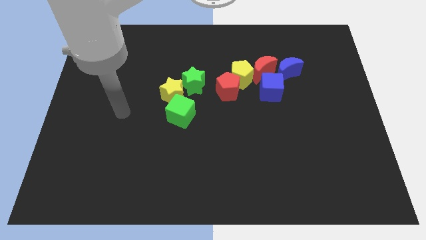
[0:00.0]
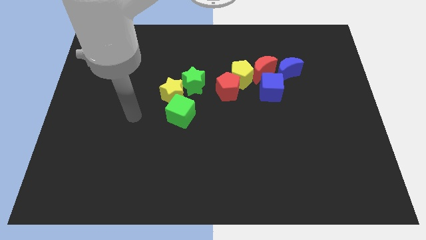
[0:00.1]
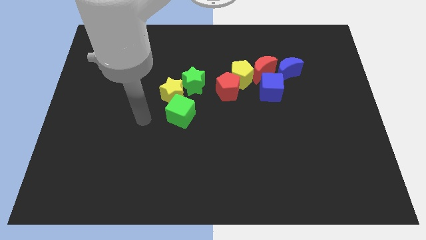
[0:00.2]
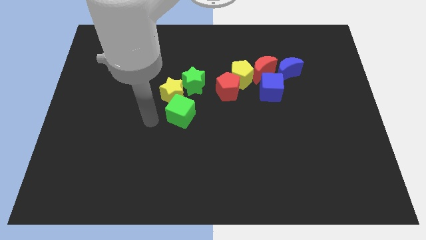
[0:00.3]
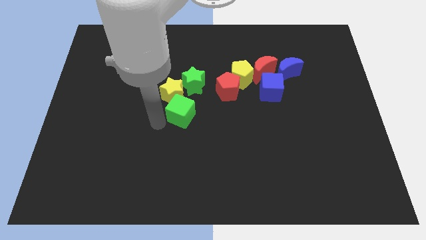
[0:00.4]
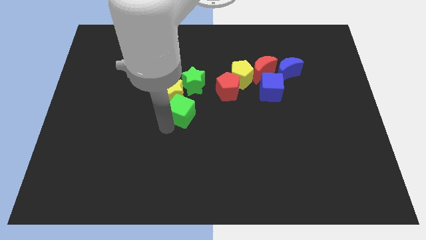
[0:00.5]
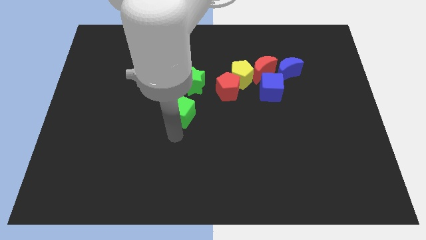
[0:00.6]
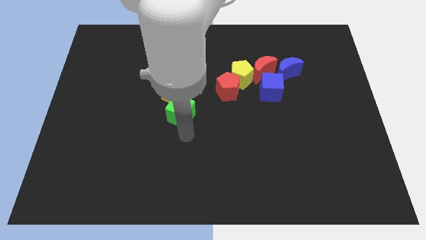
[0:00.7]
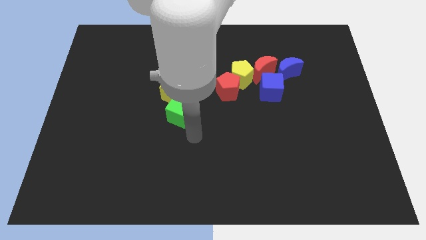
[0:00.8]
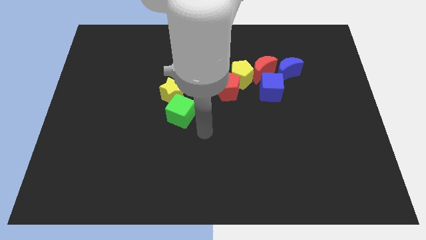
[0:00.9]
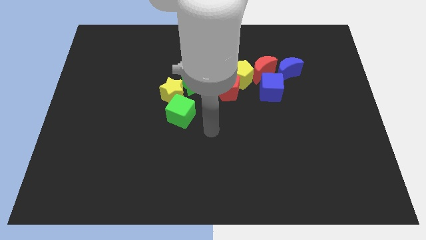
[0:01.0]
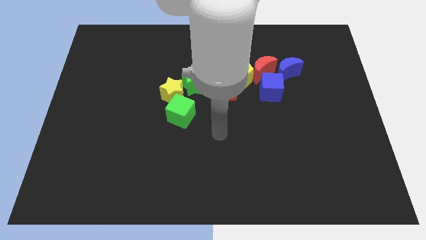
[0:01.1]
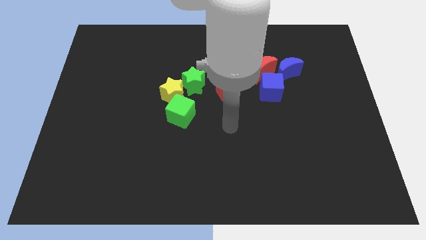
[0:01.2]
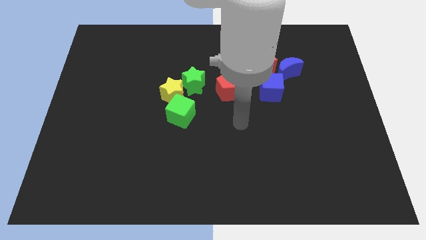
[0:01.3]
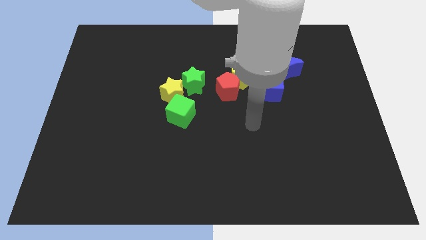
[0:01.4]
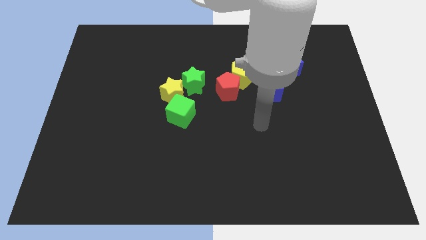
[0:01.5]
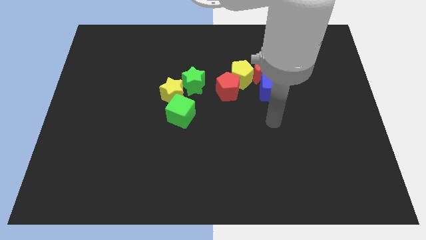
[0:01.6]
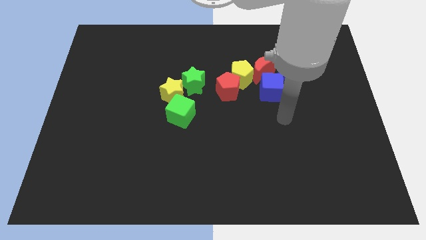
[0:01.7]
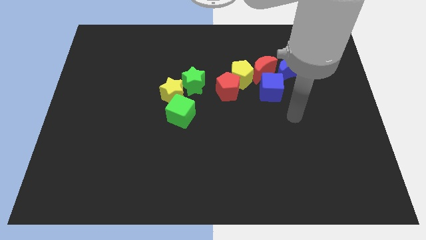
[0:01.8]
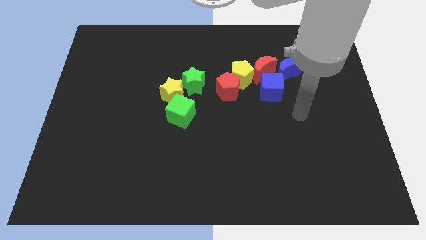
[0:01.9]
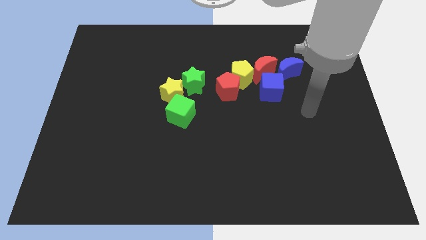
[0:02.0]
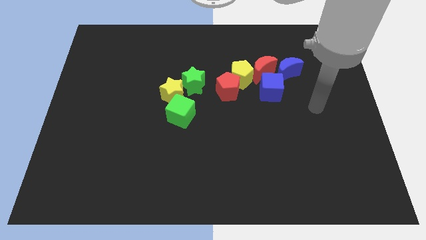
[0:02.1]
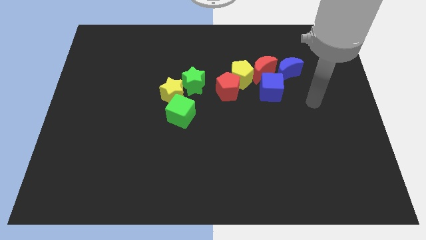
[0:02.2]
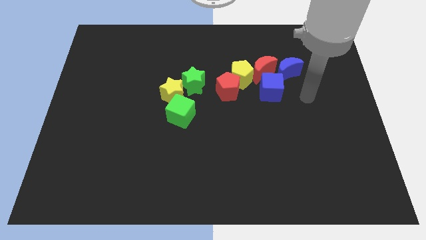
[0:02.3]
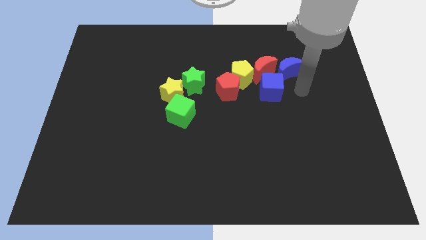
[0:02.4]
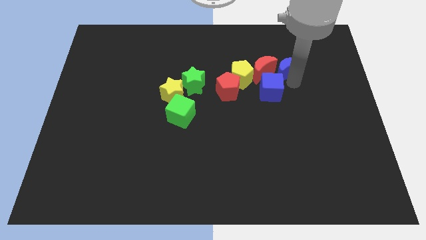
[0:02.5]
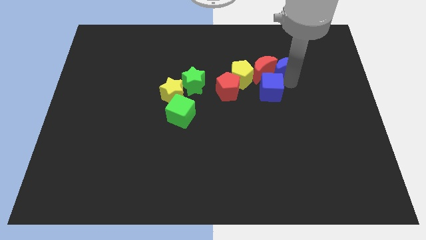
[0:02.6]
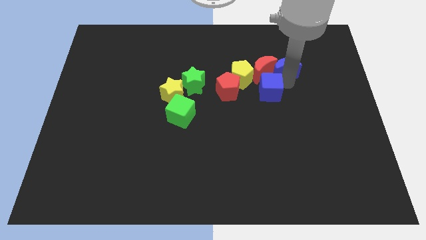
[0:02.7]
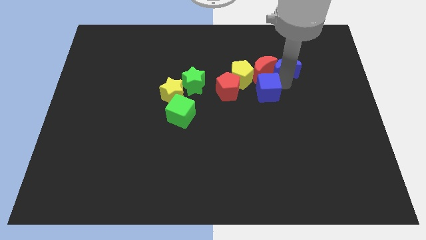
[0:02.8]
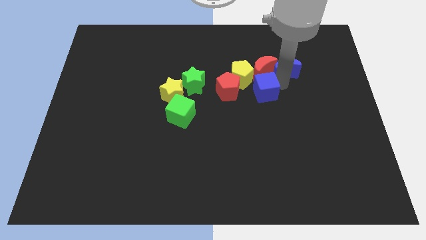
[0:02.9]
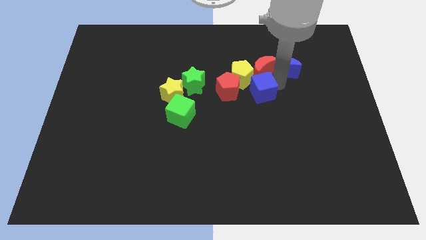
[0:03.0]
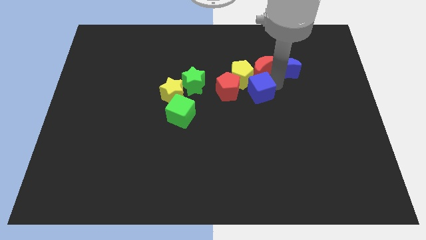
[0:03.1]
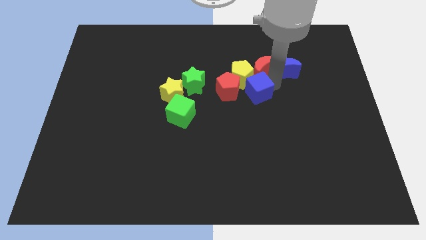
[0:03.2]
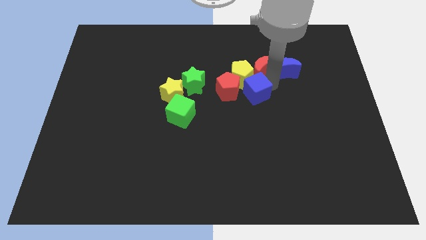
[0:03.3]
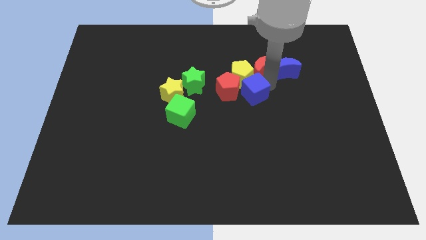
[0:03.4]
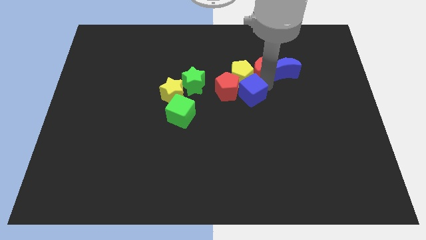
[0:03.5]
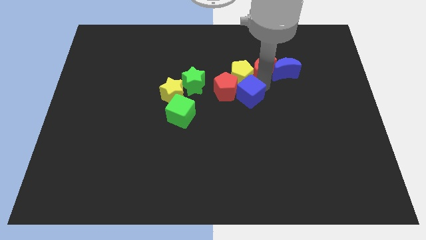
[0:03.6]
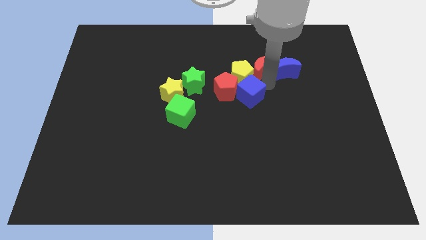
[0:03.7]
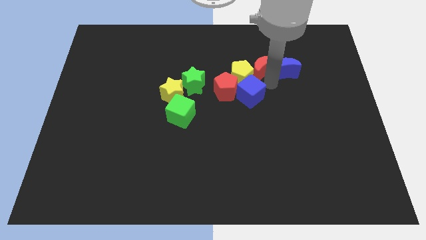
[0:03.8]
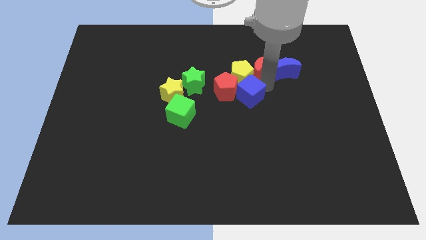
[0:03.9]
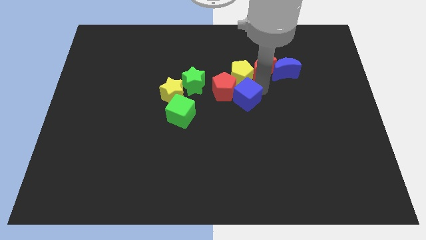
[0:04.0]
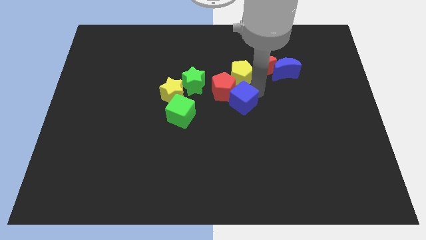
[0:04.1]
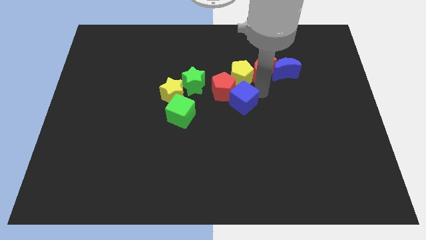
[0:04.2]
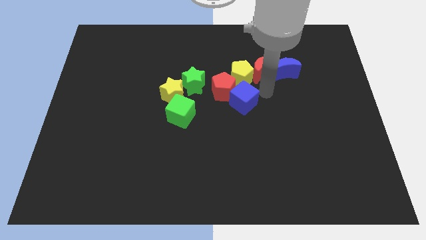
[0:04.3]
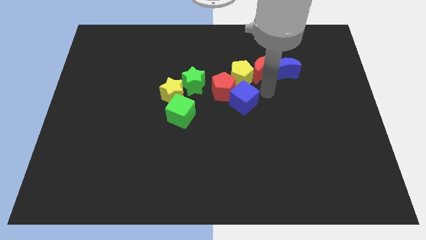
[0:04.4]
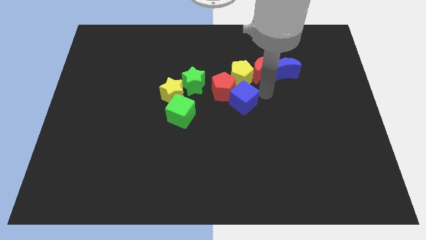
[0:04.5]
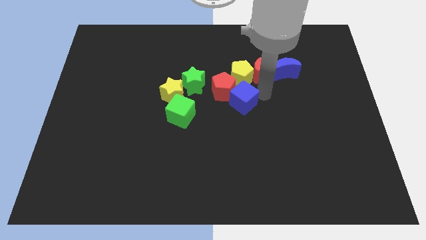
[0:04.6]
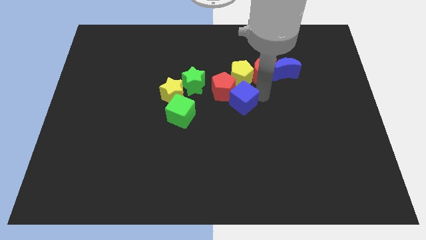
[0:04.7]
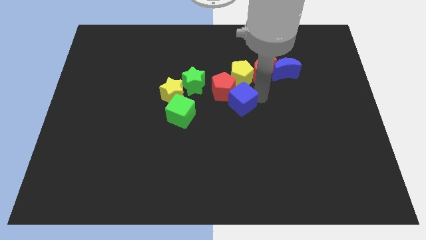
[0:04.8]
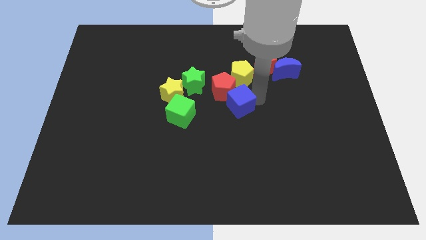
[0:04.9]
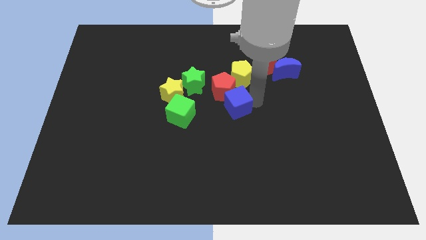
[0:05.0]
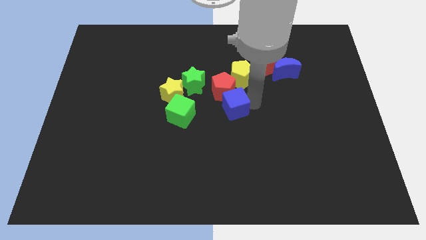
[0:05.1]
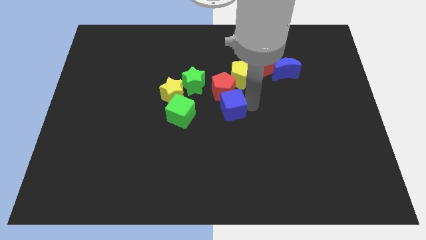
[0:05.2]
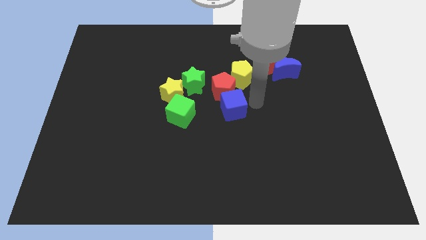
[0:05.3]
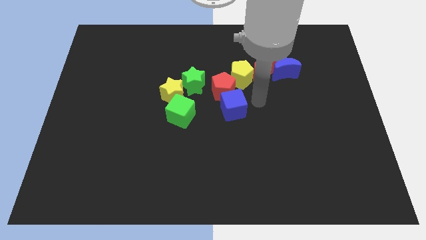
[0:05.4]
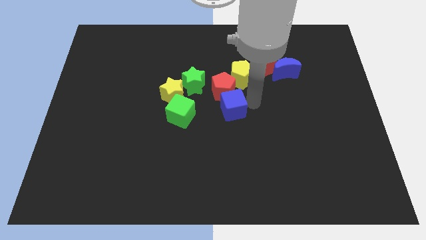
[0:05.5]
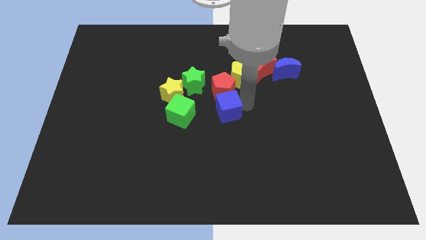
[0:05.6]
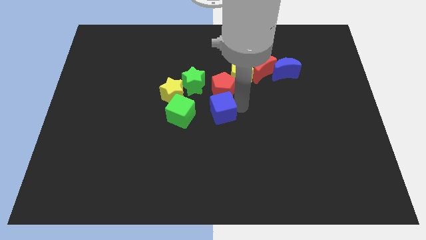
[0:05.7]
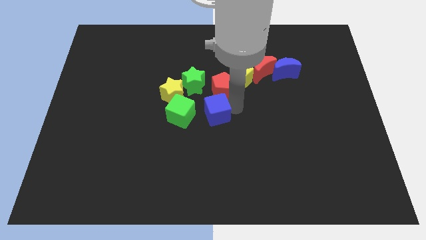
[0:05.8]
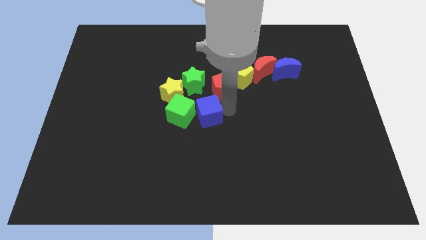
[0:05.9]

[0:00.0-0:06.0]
put the blue cube below the green star

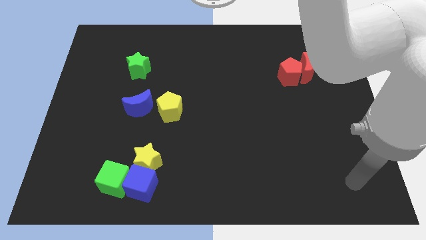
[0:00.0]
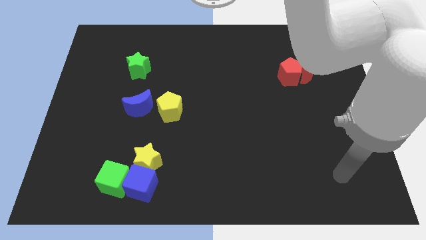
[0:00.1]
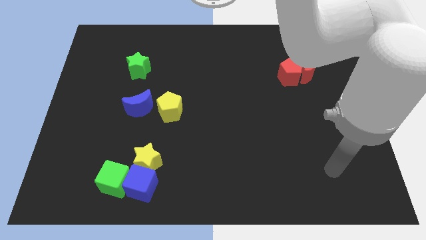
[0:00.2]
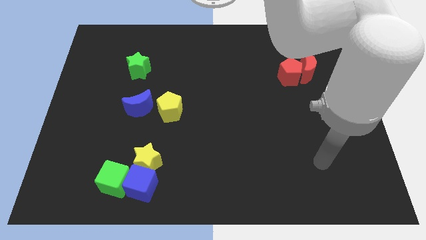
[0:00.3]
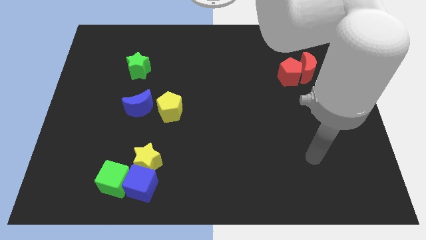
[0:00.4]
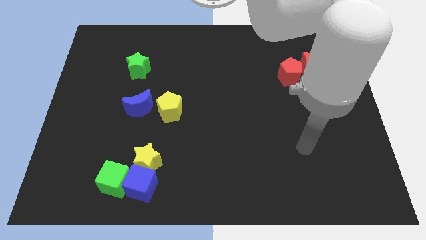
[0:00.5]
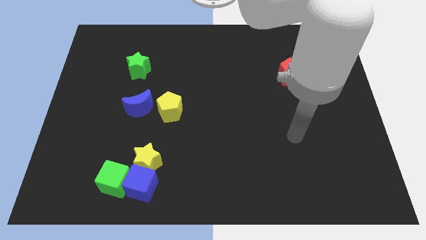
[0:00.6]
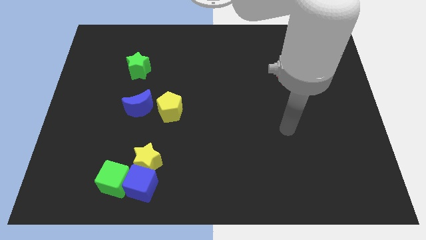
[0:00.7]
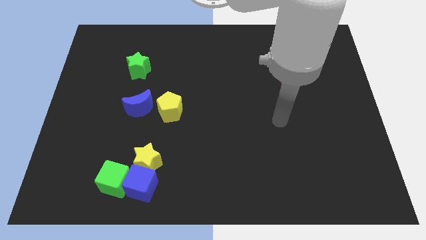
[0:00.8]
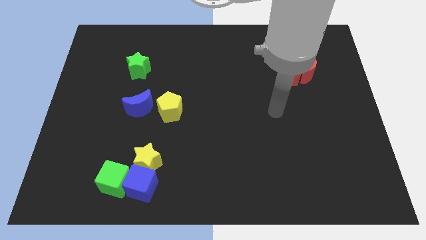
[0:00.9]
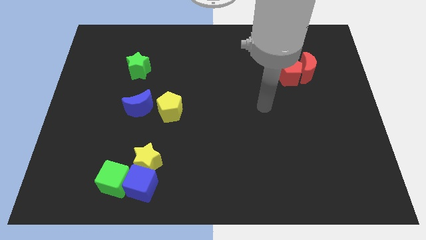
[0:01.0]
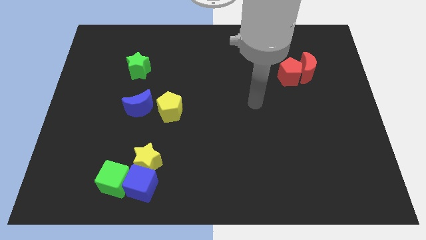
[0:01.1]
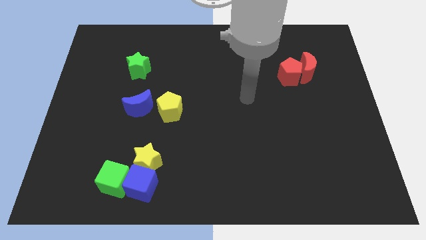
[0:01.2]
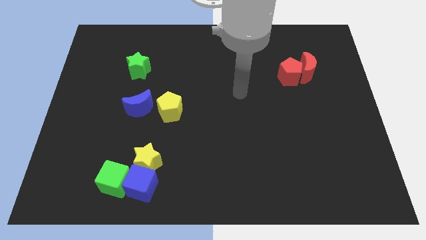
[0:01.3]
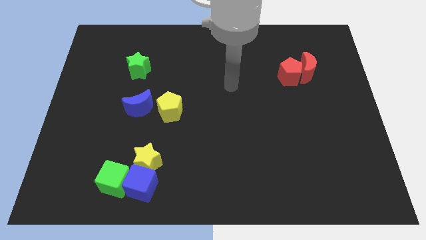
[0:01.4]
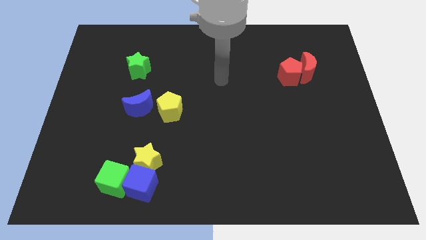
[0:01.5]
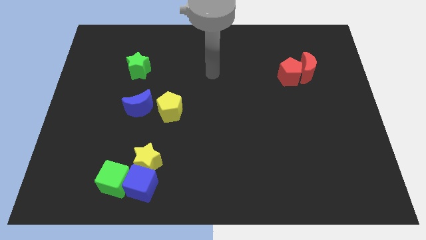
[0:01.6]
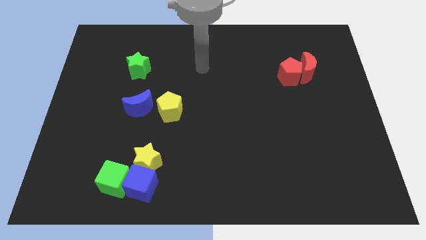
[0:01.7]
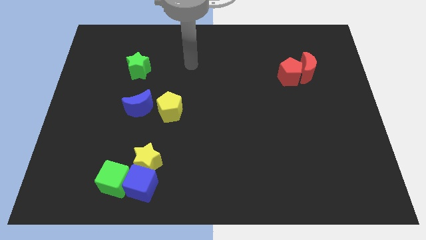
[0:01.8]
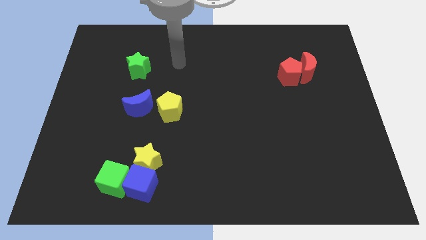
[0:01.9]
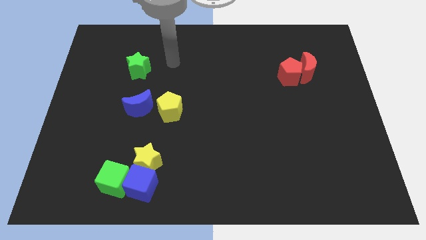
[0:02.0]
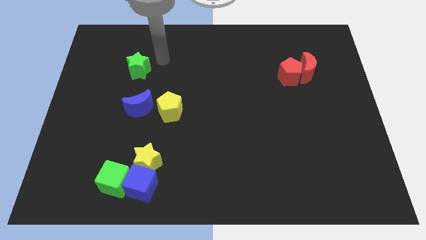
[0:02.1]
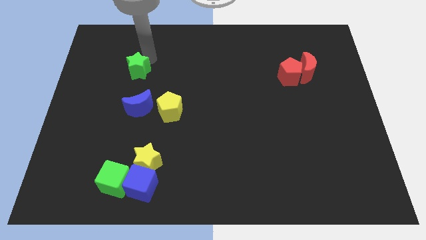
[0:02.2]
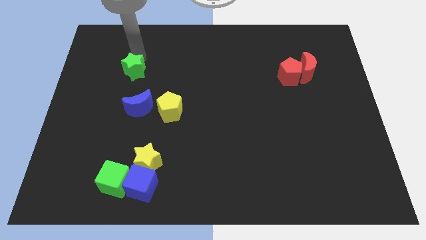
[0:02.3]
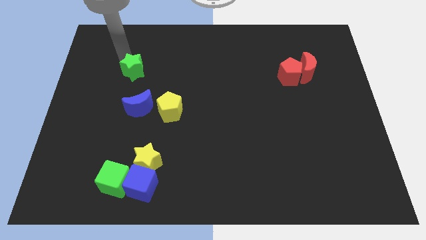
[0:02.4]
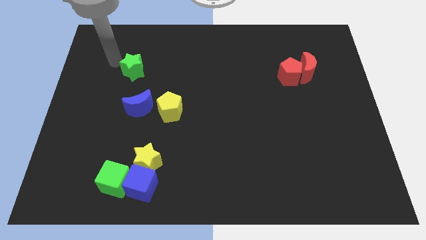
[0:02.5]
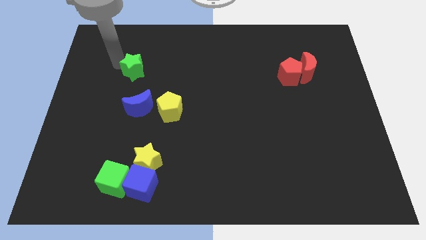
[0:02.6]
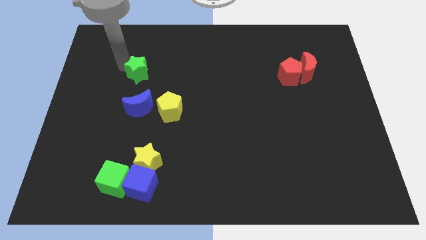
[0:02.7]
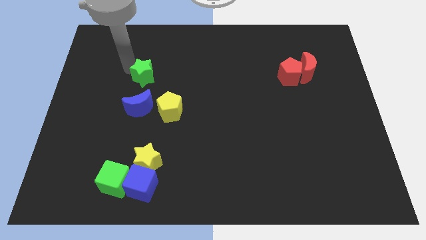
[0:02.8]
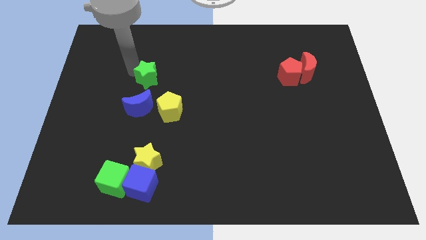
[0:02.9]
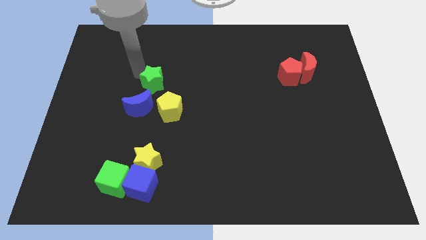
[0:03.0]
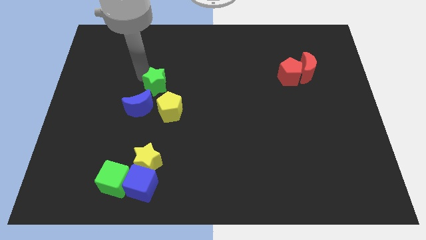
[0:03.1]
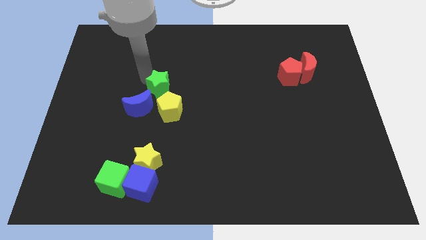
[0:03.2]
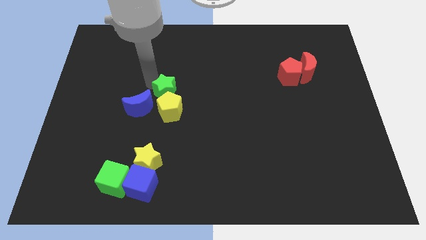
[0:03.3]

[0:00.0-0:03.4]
move the green star to the top right side of the yellow pentagon
